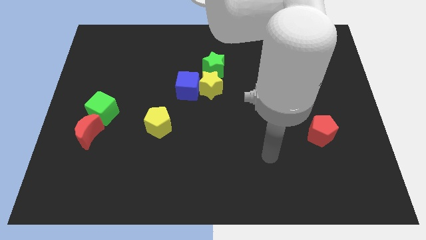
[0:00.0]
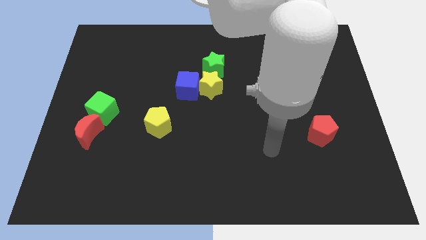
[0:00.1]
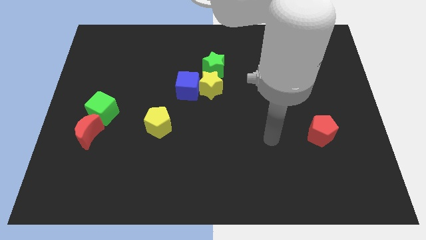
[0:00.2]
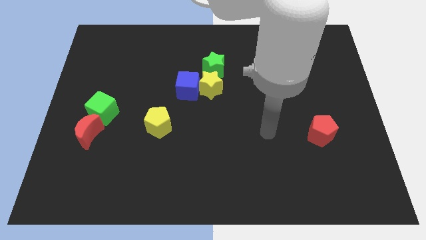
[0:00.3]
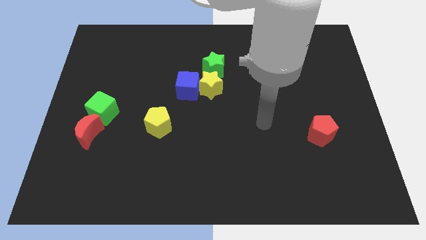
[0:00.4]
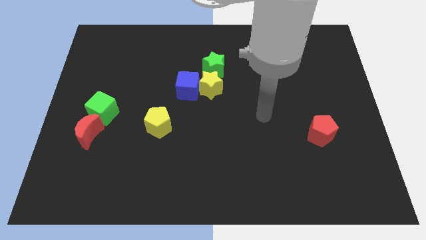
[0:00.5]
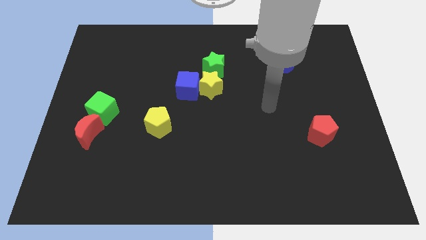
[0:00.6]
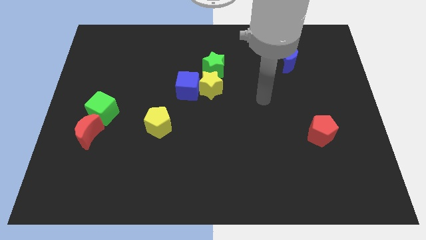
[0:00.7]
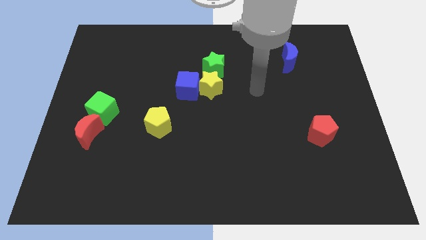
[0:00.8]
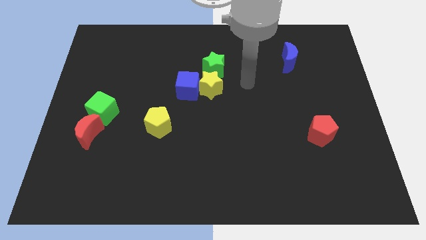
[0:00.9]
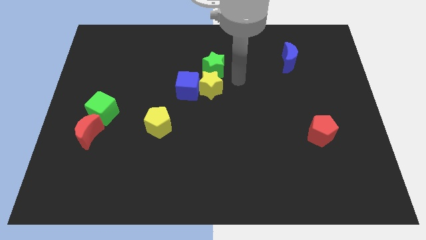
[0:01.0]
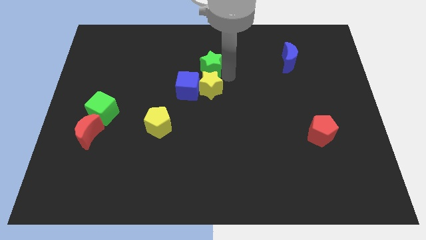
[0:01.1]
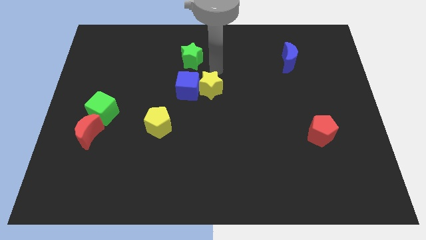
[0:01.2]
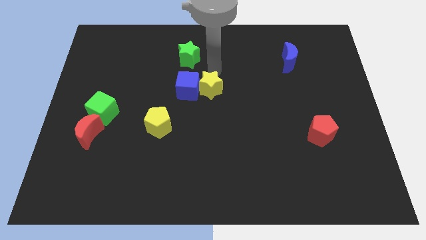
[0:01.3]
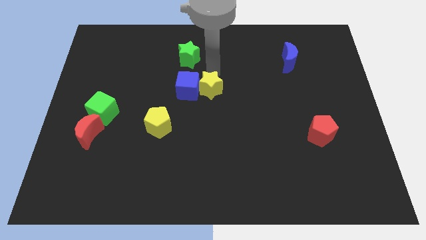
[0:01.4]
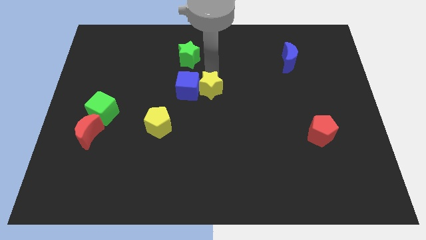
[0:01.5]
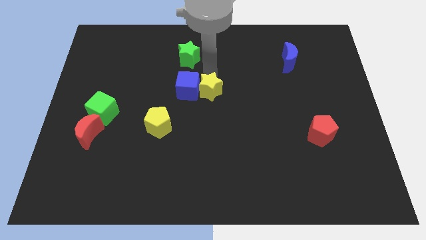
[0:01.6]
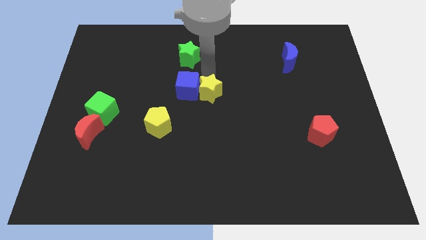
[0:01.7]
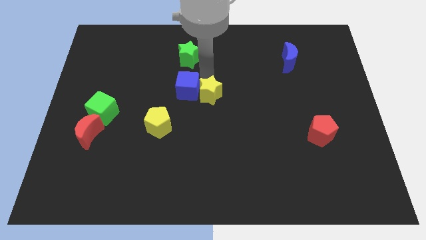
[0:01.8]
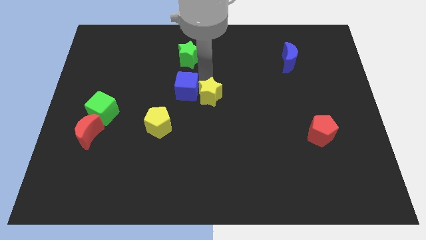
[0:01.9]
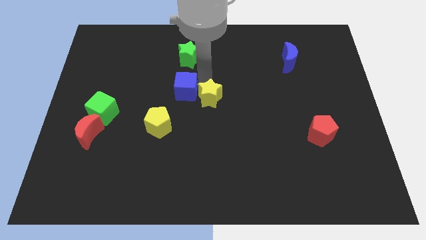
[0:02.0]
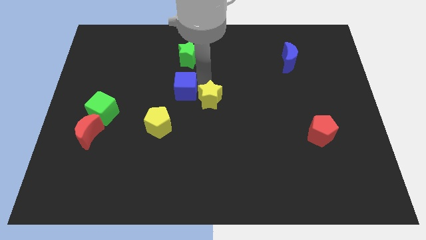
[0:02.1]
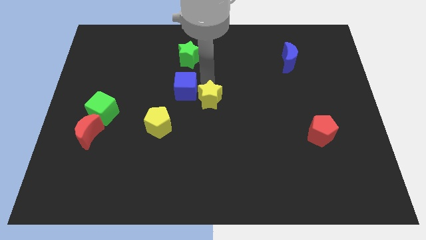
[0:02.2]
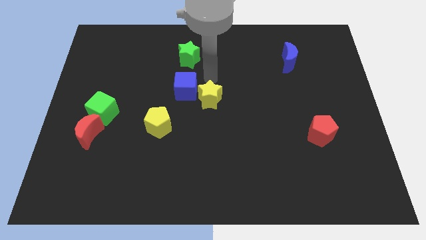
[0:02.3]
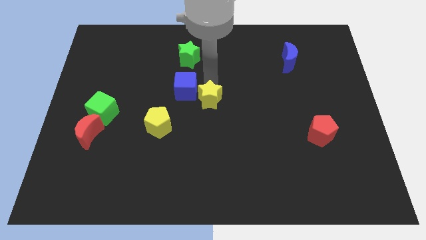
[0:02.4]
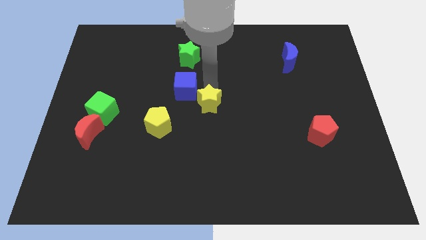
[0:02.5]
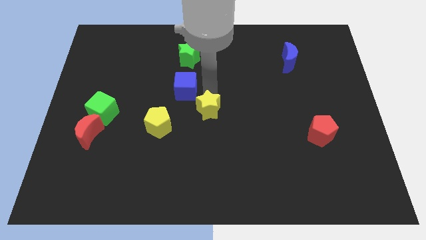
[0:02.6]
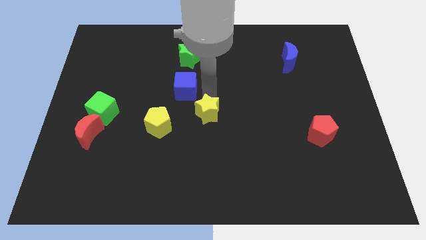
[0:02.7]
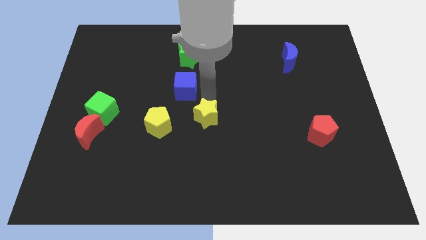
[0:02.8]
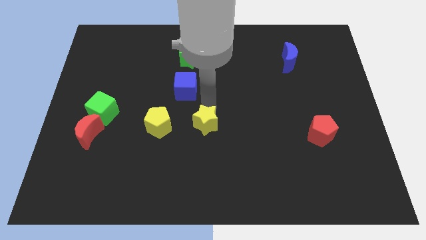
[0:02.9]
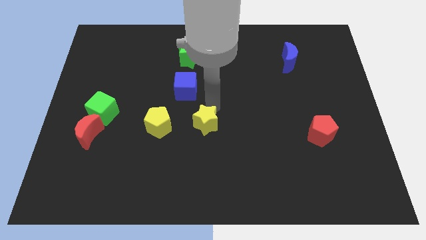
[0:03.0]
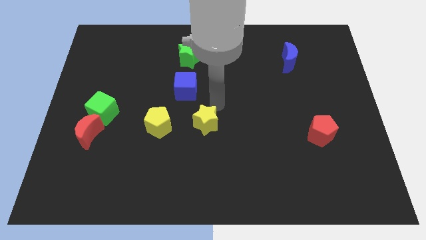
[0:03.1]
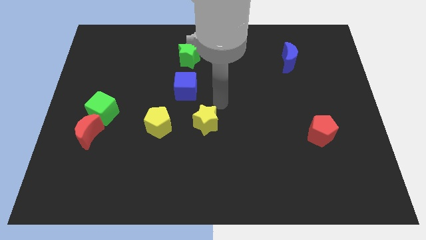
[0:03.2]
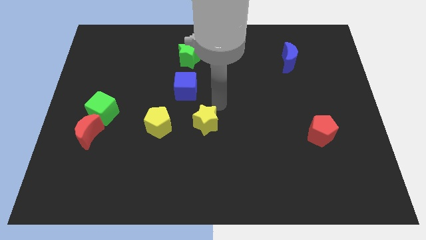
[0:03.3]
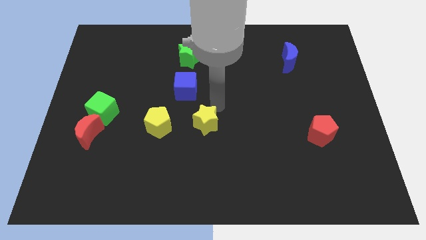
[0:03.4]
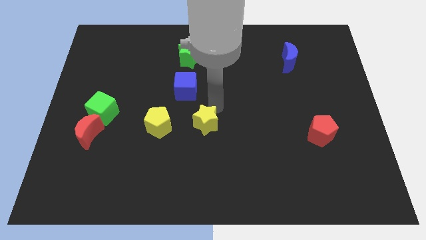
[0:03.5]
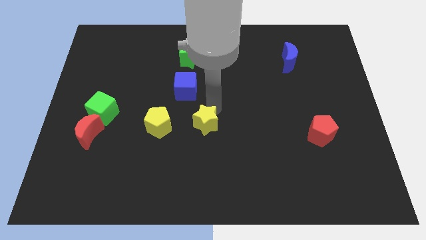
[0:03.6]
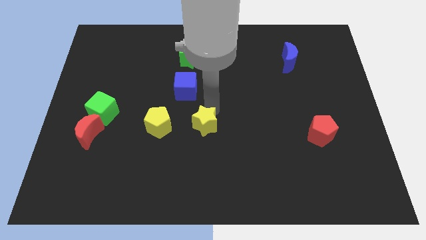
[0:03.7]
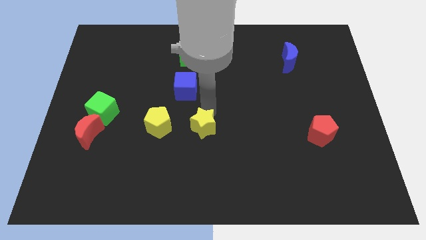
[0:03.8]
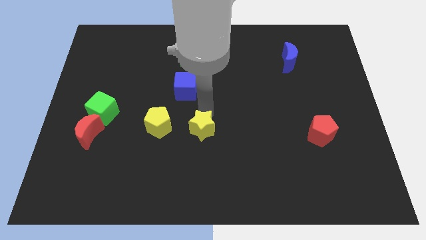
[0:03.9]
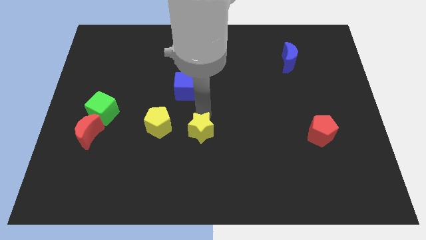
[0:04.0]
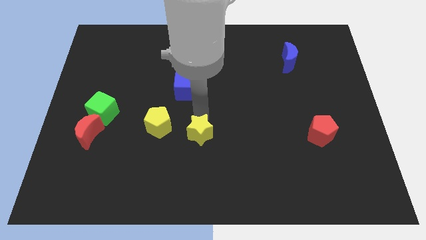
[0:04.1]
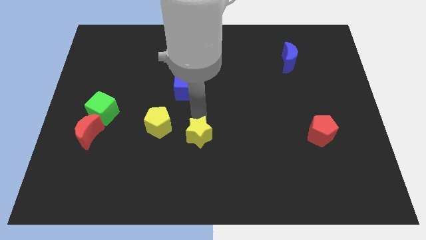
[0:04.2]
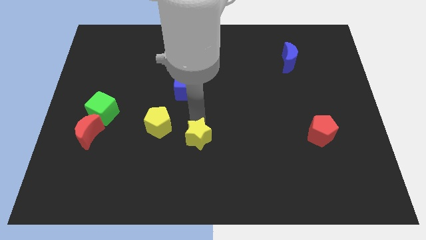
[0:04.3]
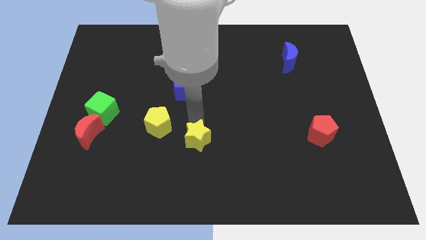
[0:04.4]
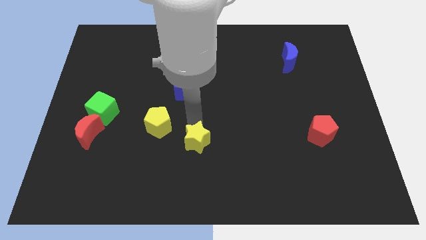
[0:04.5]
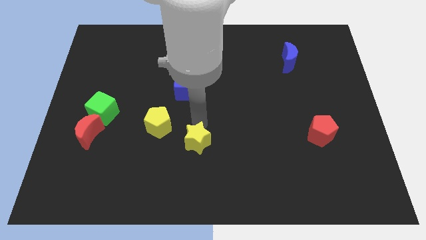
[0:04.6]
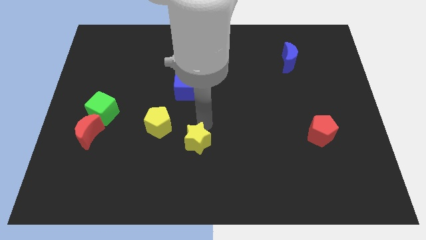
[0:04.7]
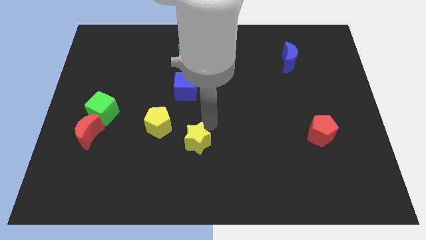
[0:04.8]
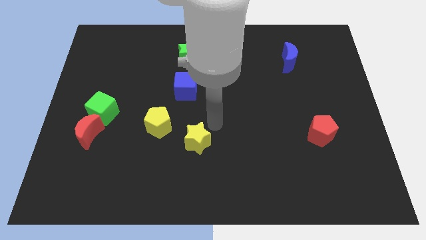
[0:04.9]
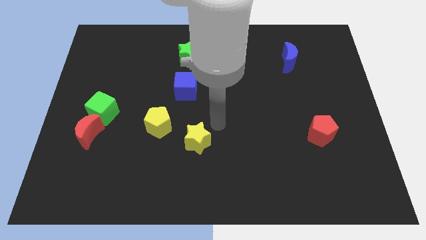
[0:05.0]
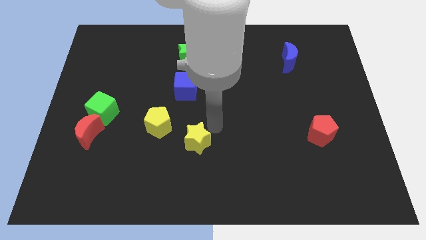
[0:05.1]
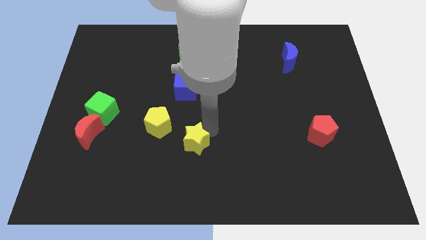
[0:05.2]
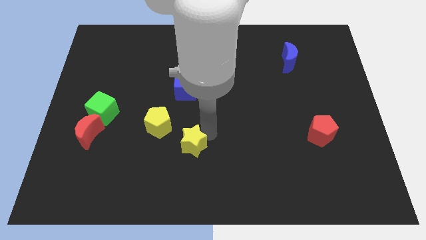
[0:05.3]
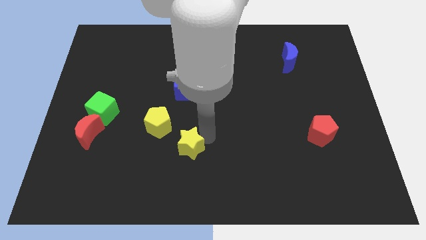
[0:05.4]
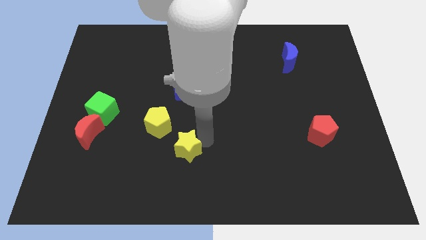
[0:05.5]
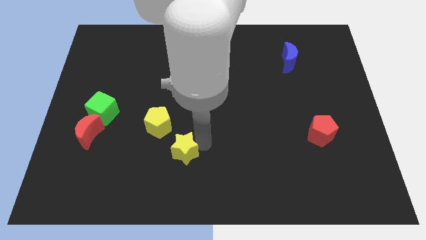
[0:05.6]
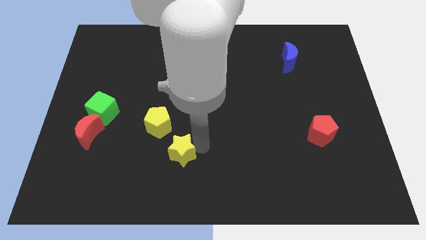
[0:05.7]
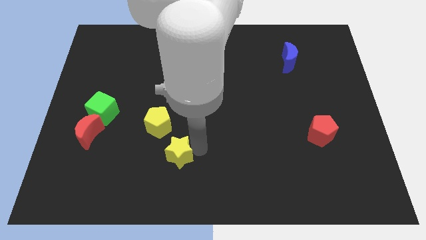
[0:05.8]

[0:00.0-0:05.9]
push the yellow star to the bottom of the yellow pentagon

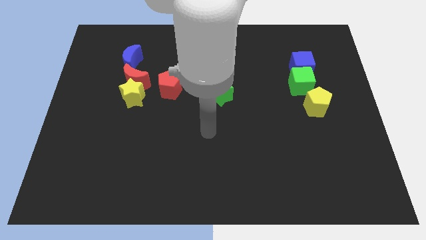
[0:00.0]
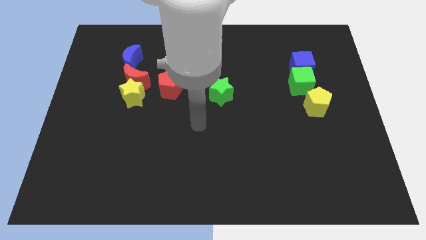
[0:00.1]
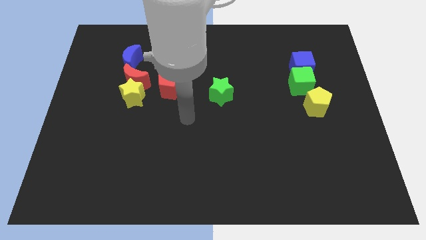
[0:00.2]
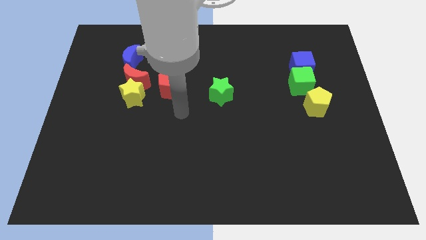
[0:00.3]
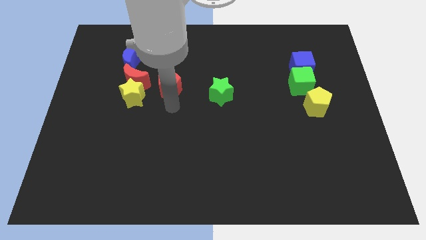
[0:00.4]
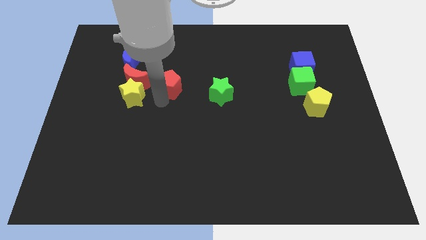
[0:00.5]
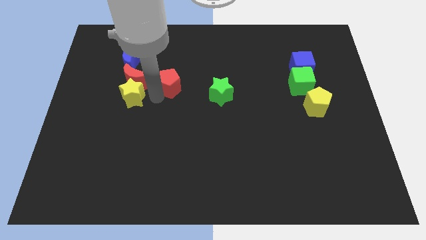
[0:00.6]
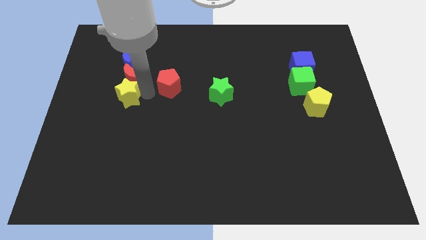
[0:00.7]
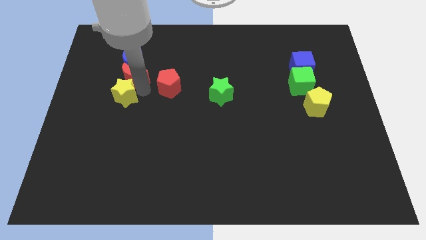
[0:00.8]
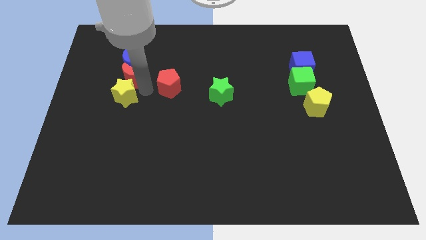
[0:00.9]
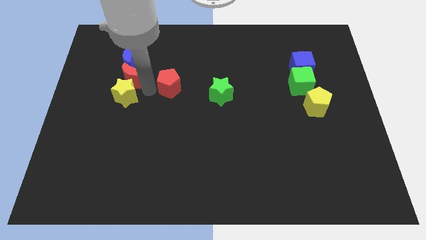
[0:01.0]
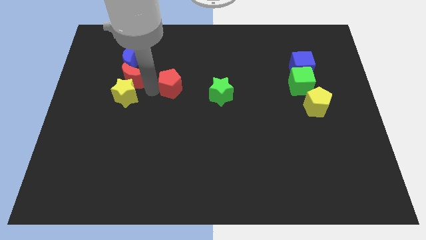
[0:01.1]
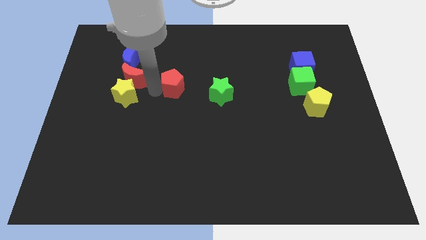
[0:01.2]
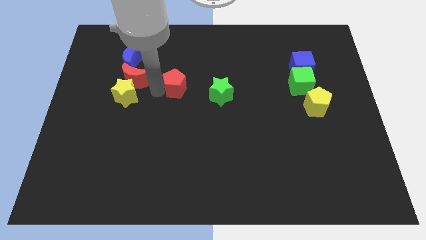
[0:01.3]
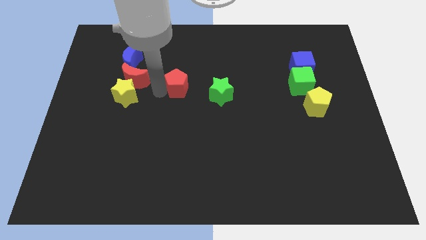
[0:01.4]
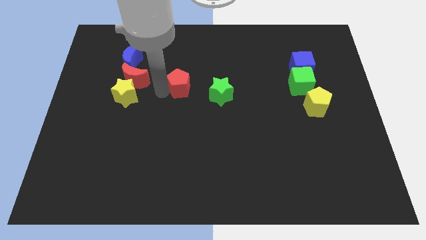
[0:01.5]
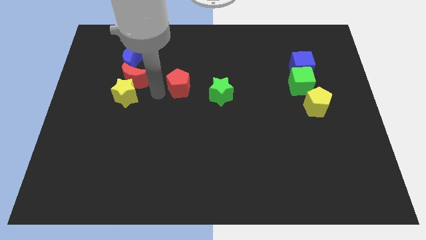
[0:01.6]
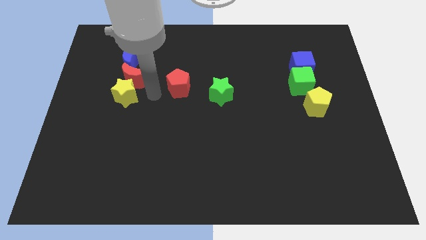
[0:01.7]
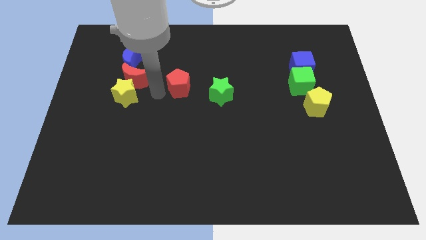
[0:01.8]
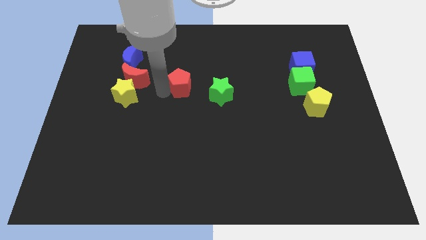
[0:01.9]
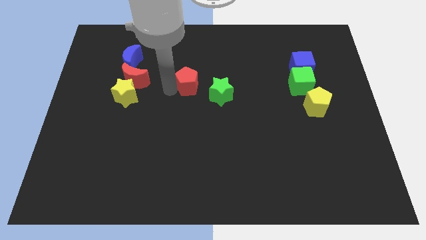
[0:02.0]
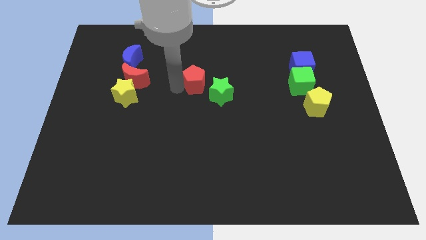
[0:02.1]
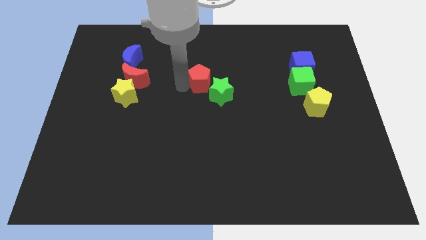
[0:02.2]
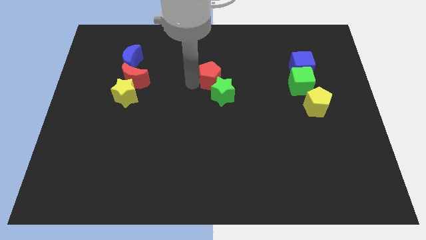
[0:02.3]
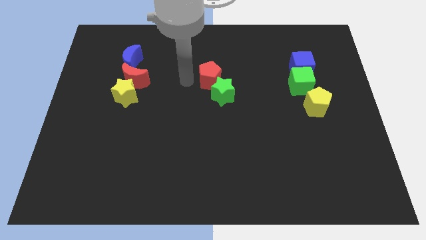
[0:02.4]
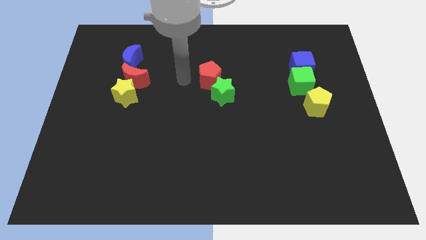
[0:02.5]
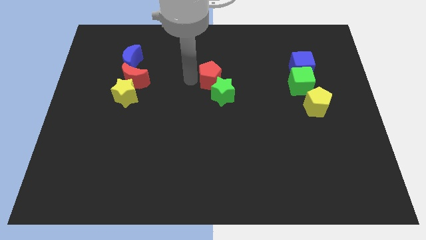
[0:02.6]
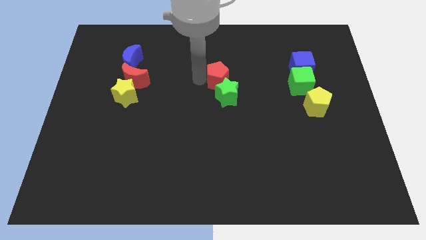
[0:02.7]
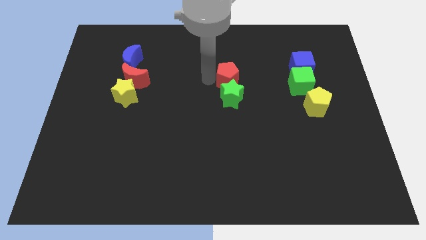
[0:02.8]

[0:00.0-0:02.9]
slide the red pentagon to the top right side of the green star
